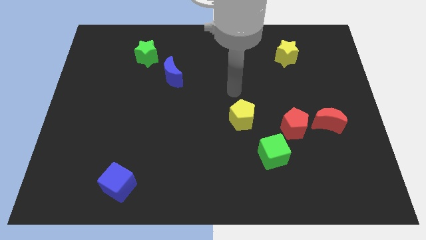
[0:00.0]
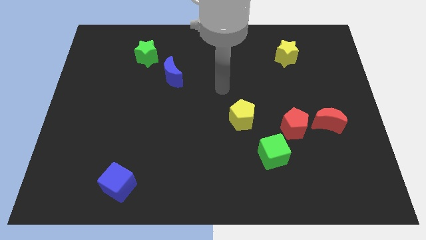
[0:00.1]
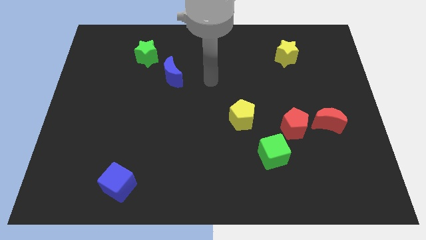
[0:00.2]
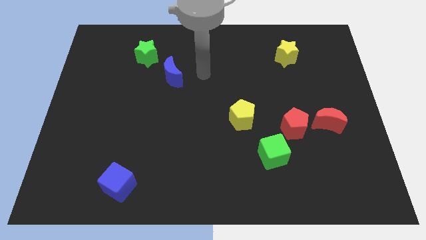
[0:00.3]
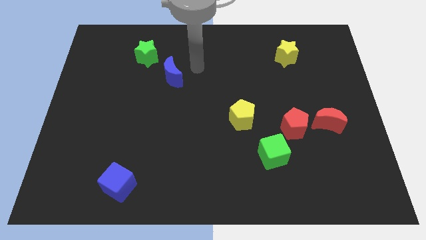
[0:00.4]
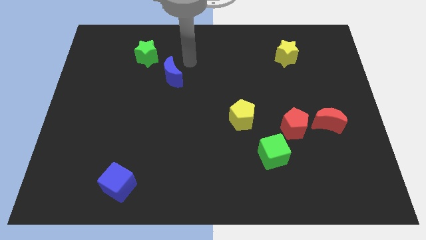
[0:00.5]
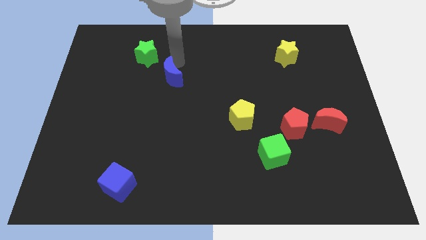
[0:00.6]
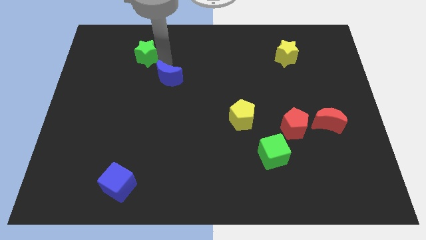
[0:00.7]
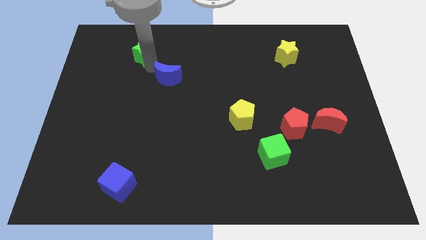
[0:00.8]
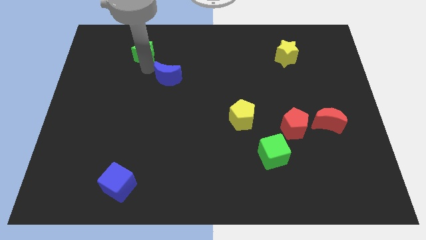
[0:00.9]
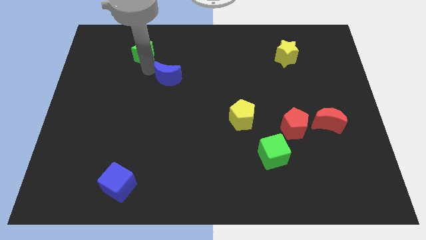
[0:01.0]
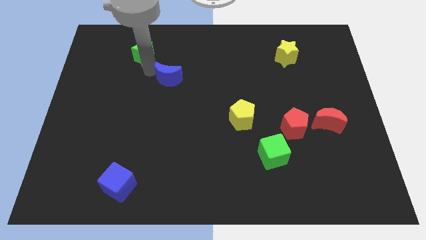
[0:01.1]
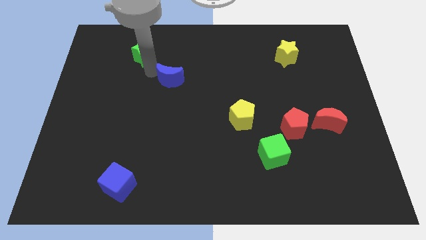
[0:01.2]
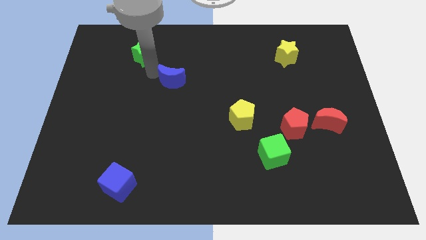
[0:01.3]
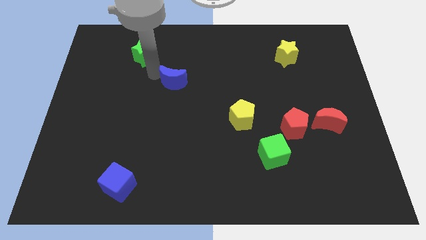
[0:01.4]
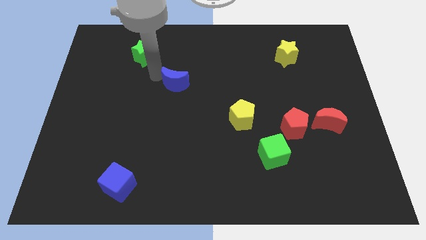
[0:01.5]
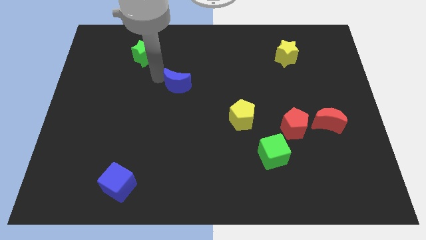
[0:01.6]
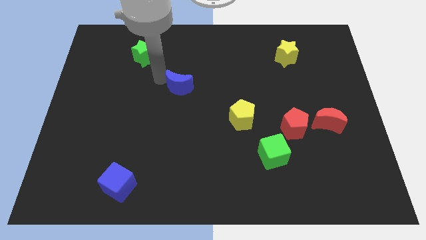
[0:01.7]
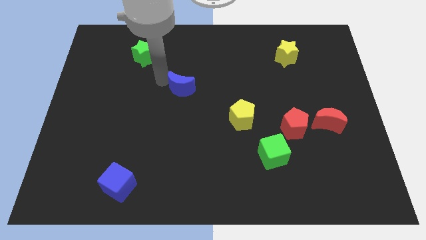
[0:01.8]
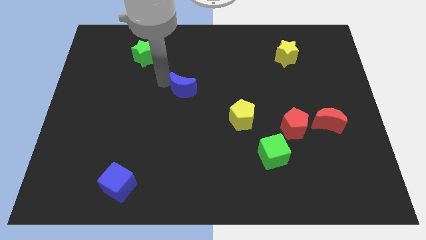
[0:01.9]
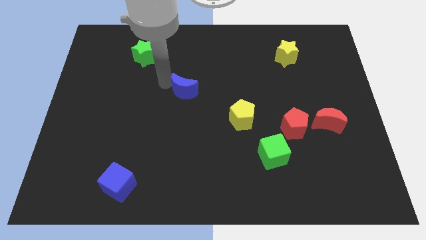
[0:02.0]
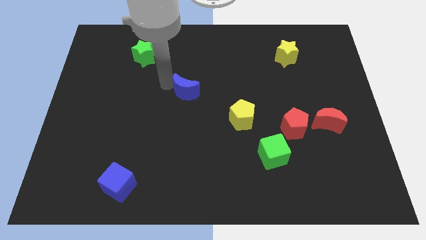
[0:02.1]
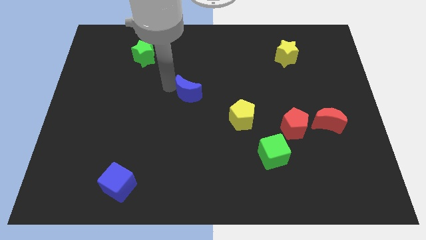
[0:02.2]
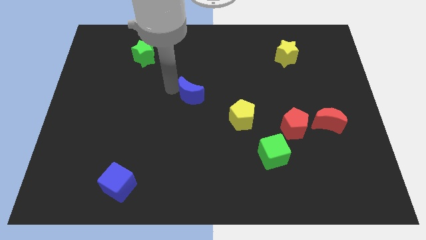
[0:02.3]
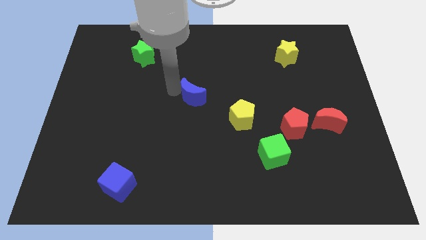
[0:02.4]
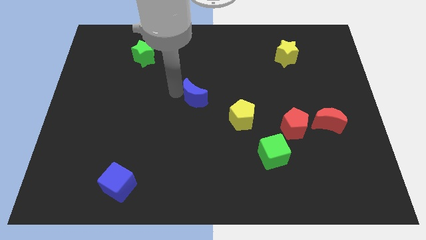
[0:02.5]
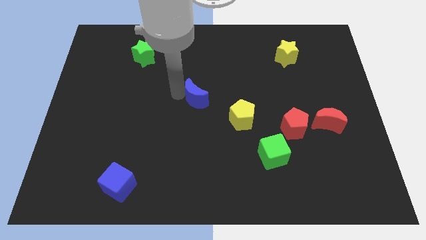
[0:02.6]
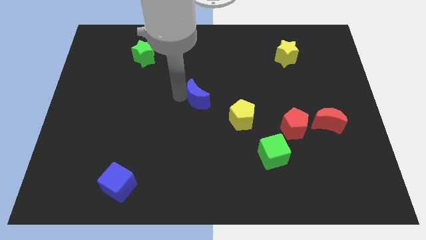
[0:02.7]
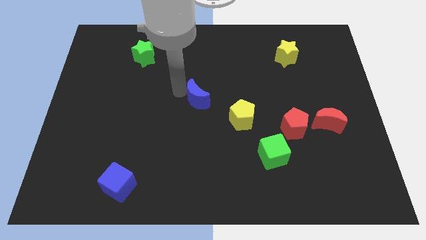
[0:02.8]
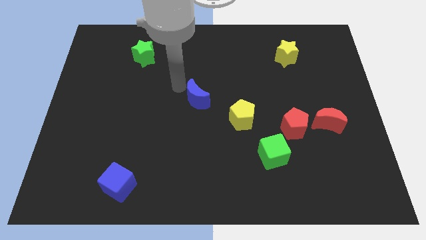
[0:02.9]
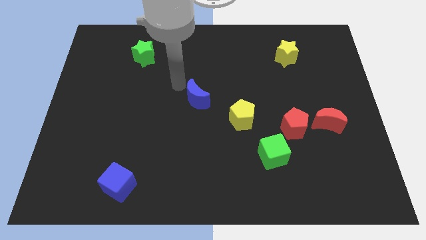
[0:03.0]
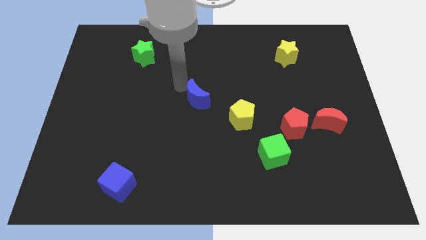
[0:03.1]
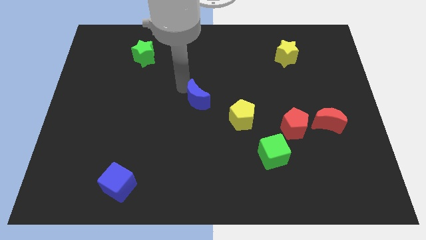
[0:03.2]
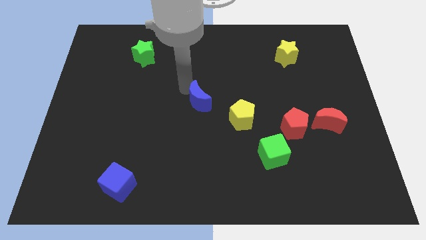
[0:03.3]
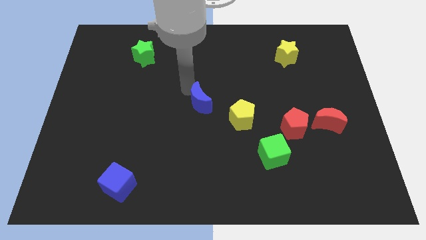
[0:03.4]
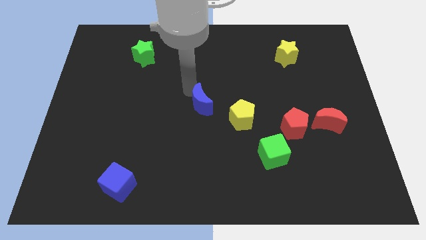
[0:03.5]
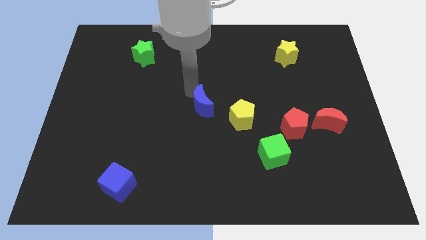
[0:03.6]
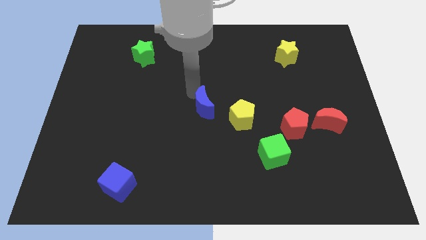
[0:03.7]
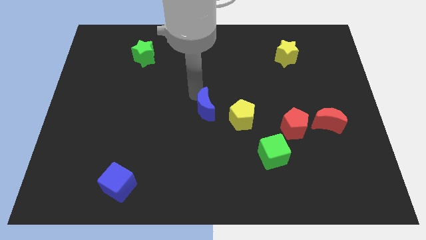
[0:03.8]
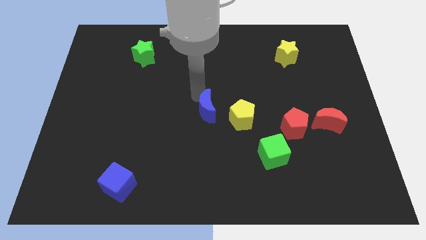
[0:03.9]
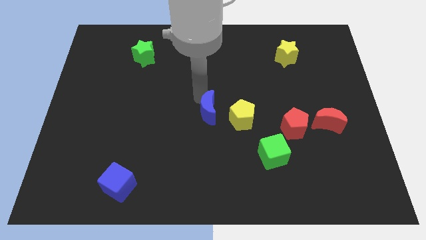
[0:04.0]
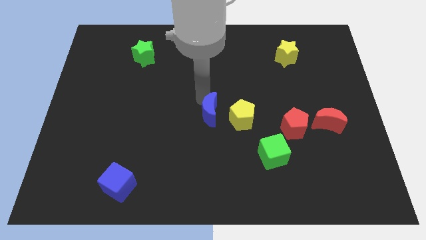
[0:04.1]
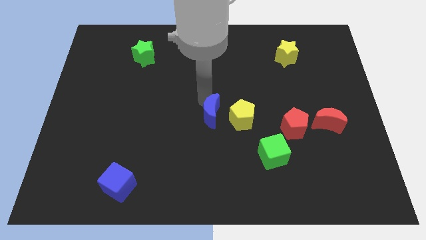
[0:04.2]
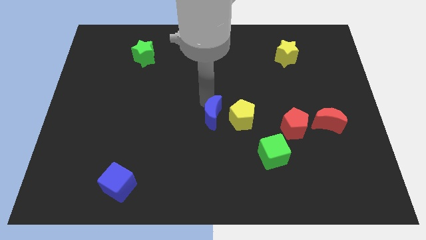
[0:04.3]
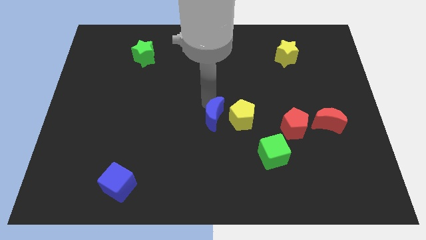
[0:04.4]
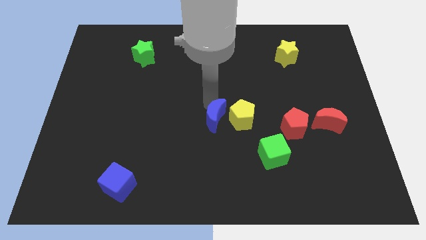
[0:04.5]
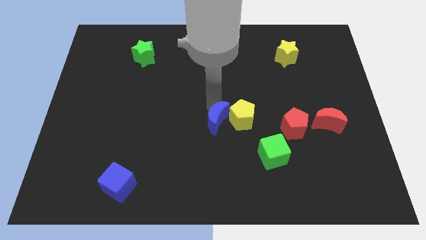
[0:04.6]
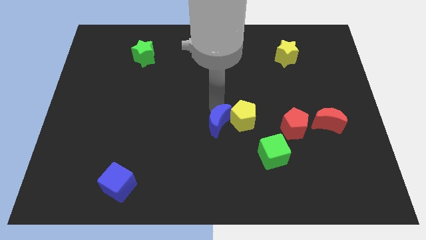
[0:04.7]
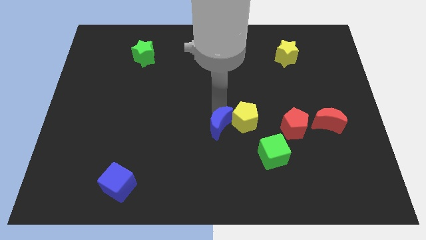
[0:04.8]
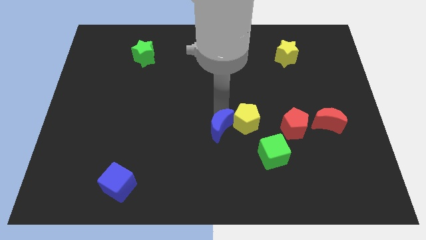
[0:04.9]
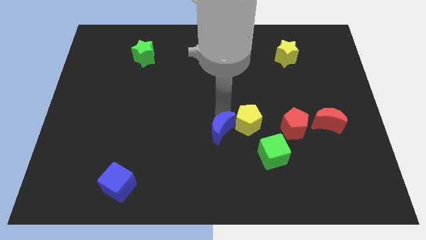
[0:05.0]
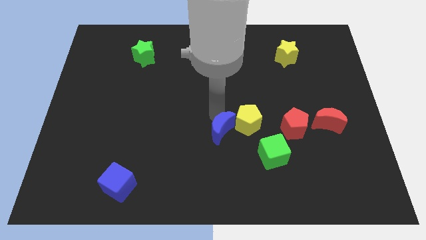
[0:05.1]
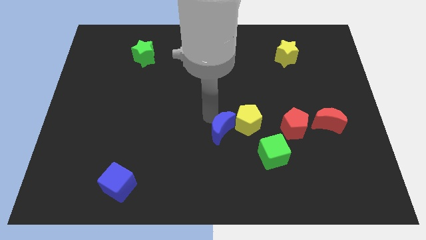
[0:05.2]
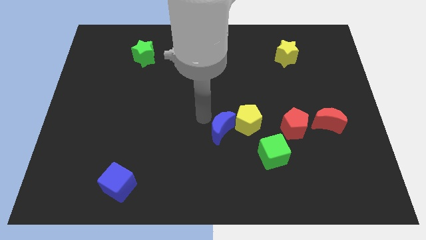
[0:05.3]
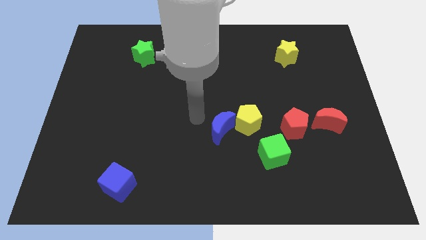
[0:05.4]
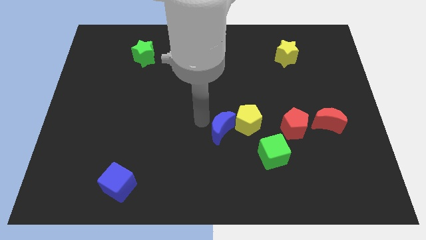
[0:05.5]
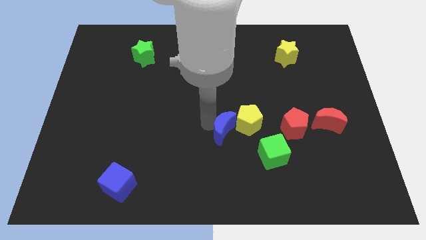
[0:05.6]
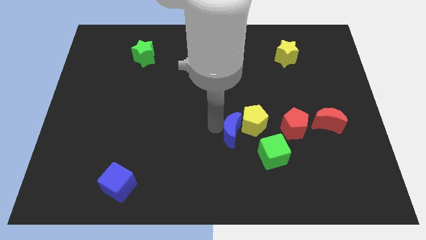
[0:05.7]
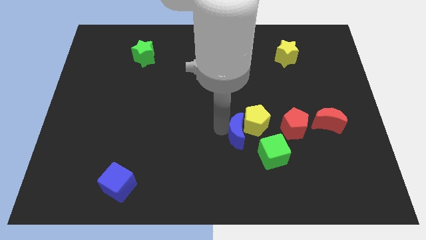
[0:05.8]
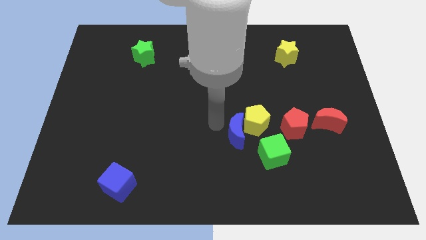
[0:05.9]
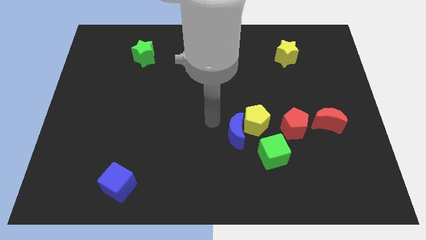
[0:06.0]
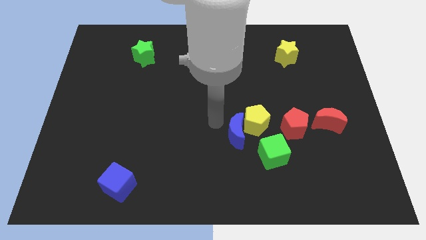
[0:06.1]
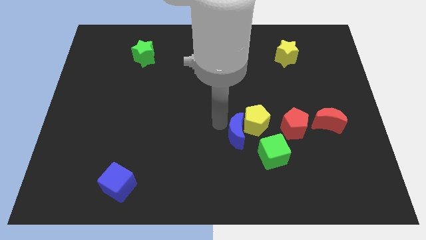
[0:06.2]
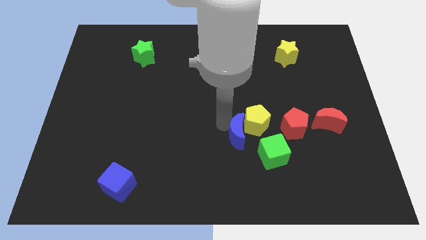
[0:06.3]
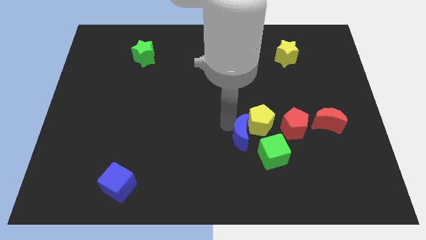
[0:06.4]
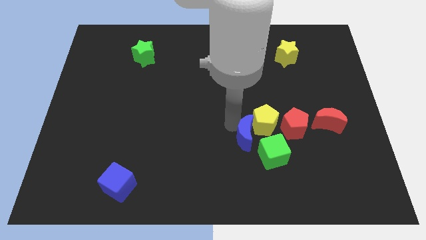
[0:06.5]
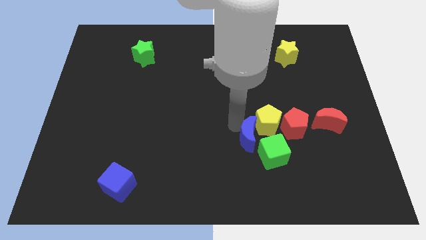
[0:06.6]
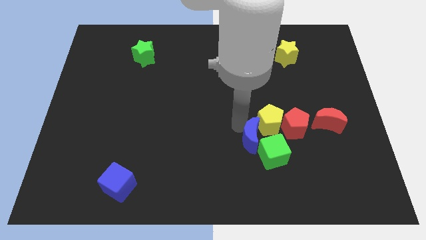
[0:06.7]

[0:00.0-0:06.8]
push the blue moon towards the green cube
